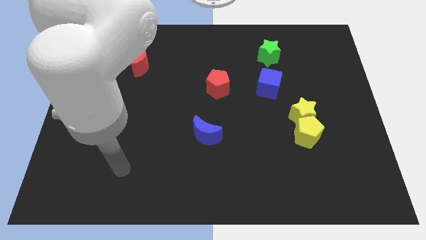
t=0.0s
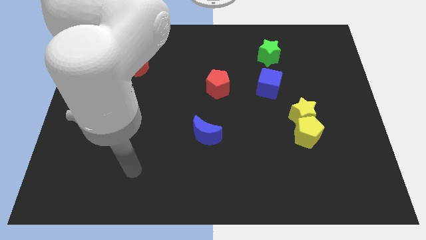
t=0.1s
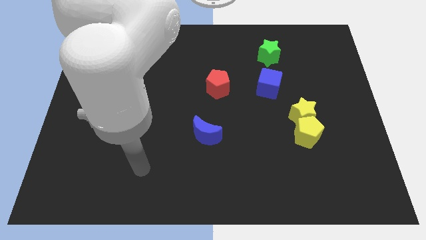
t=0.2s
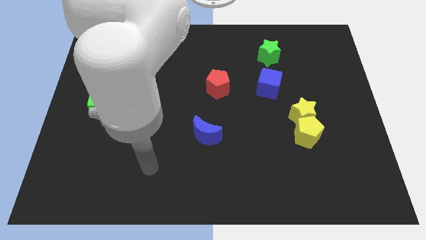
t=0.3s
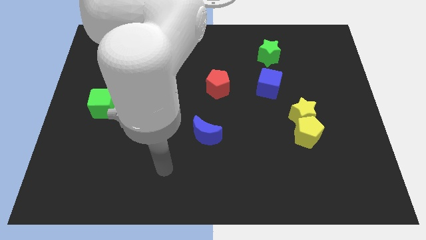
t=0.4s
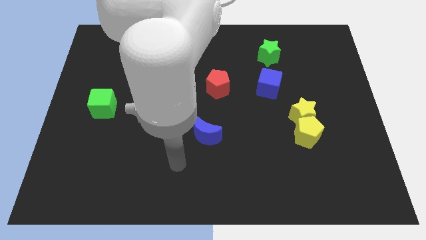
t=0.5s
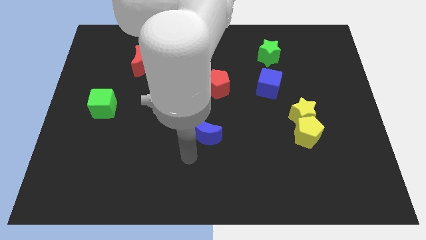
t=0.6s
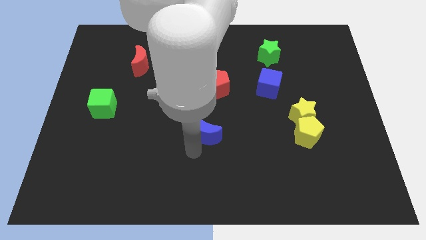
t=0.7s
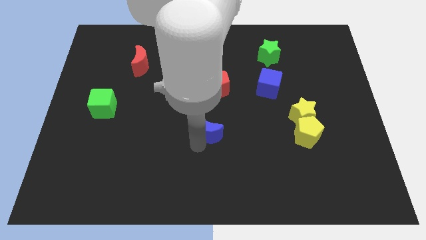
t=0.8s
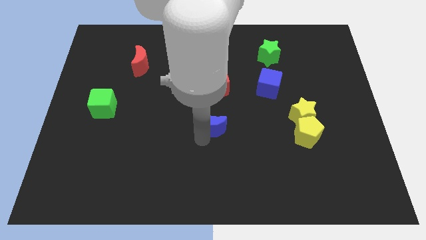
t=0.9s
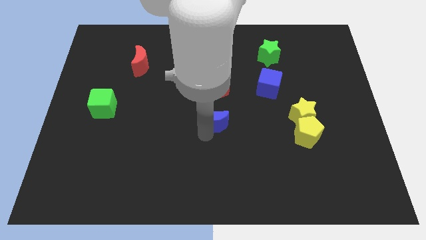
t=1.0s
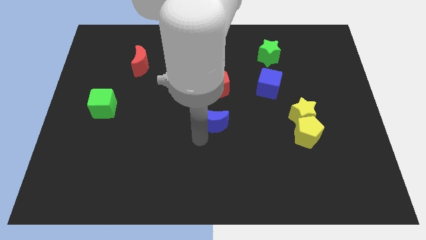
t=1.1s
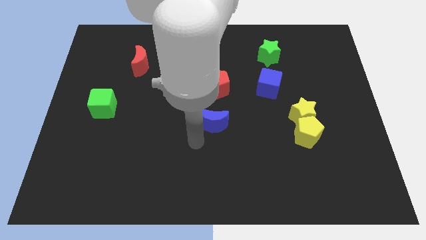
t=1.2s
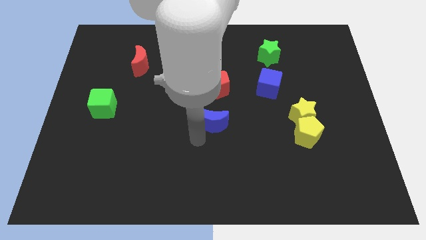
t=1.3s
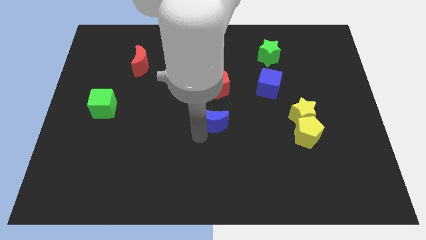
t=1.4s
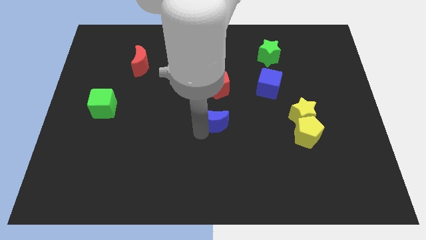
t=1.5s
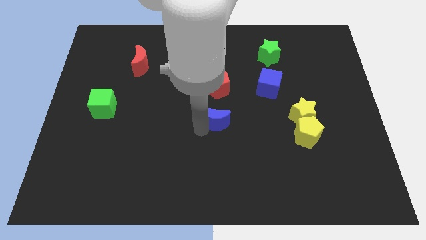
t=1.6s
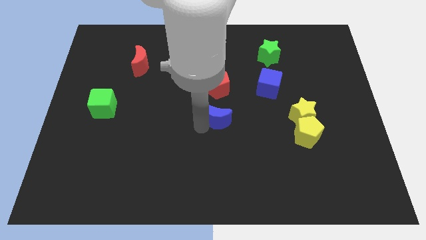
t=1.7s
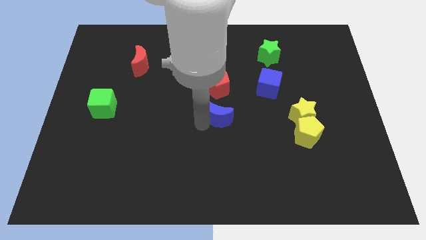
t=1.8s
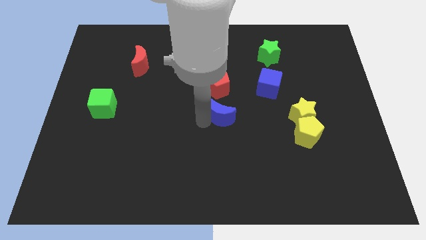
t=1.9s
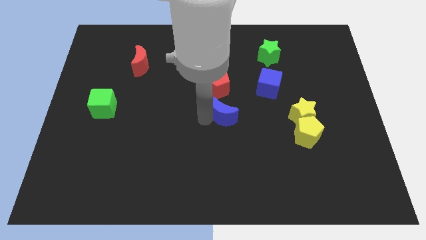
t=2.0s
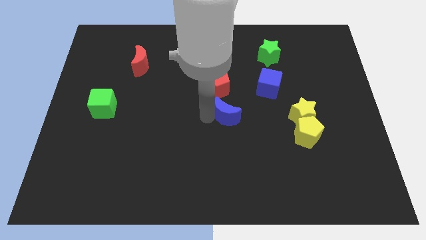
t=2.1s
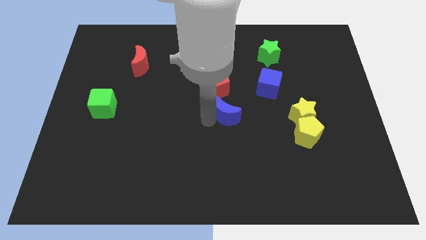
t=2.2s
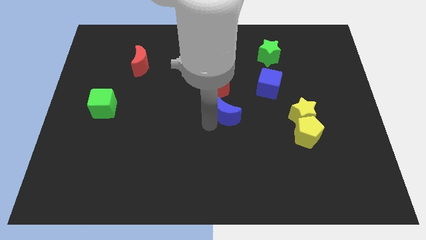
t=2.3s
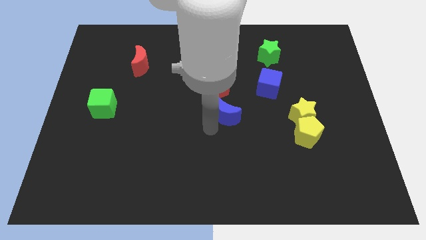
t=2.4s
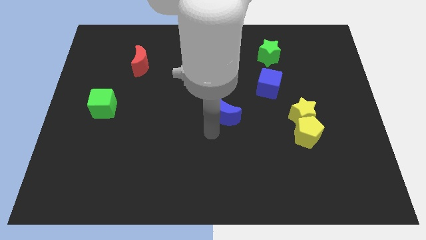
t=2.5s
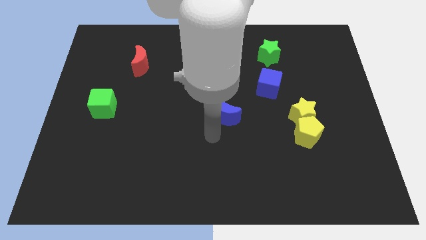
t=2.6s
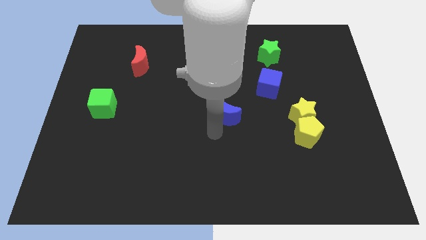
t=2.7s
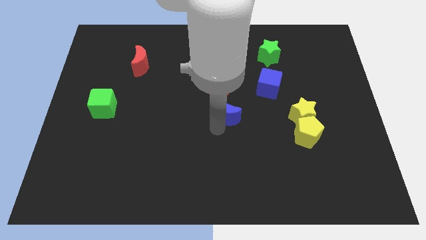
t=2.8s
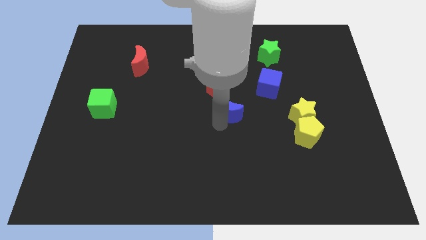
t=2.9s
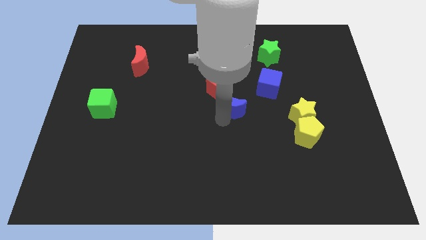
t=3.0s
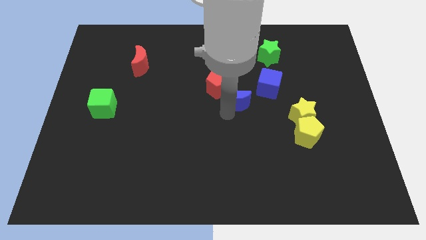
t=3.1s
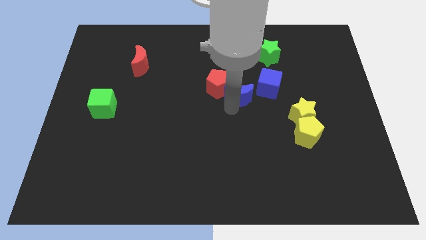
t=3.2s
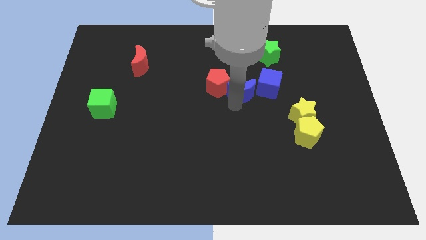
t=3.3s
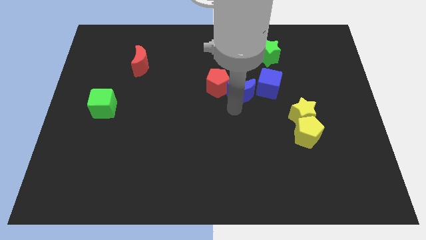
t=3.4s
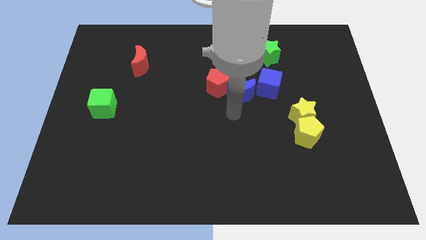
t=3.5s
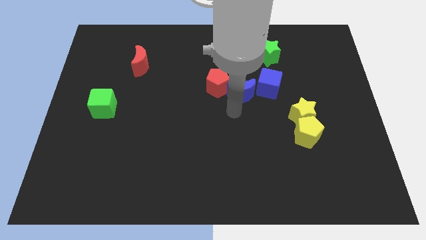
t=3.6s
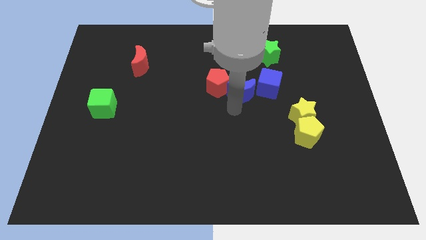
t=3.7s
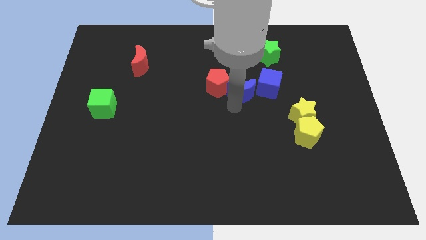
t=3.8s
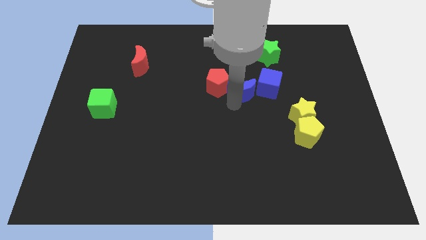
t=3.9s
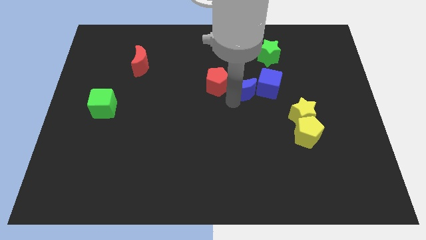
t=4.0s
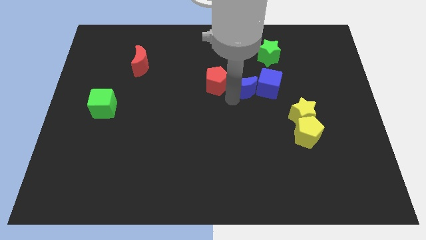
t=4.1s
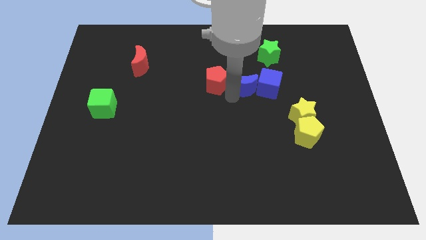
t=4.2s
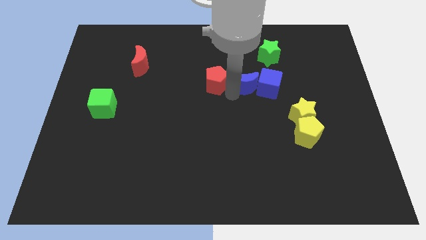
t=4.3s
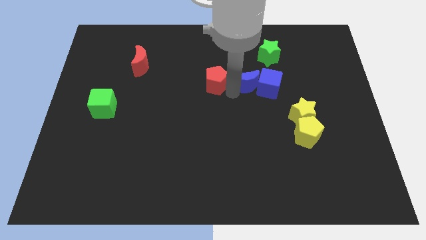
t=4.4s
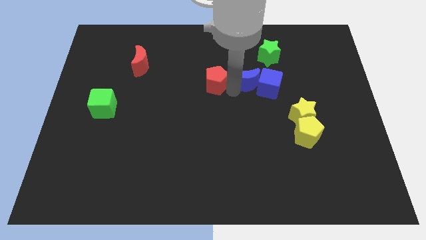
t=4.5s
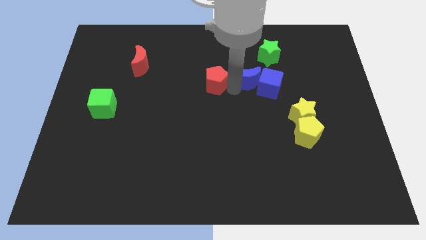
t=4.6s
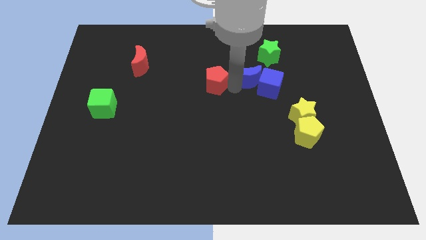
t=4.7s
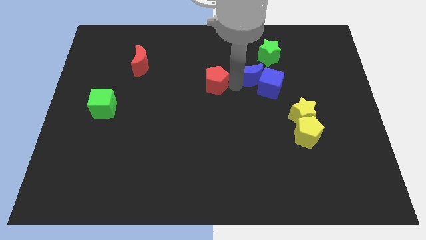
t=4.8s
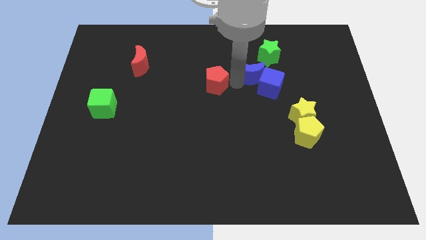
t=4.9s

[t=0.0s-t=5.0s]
move the blue moon up and then right

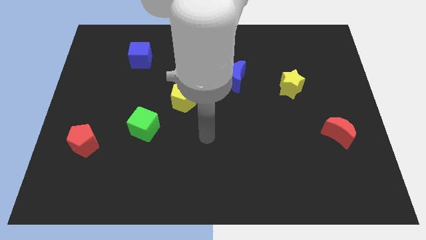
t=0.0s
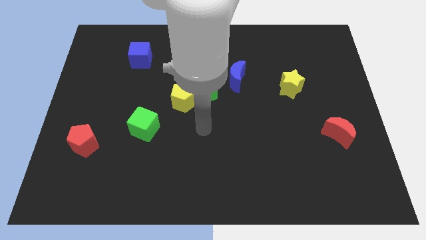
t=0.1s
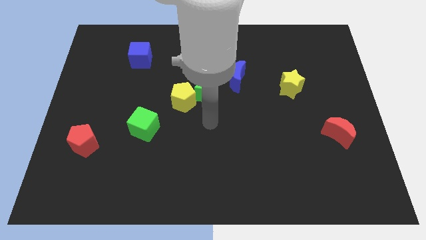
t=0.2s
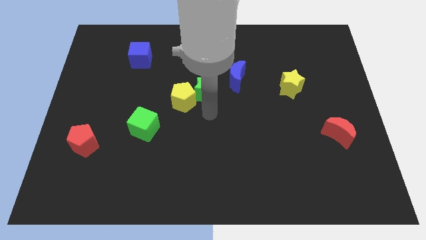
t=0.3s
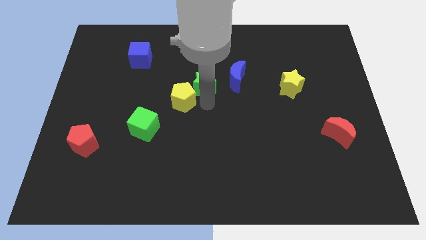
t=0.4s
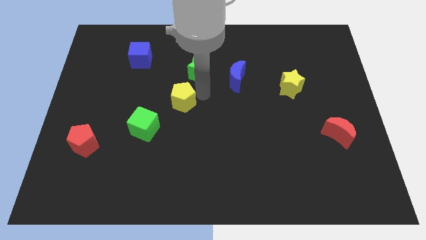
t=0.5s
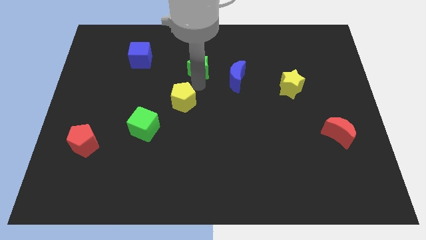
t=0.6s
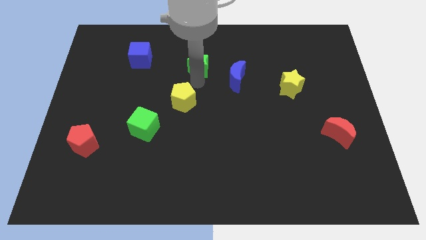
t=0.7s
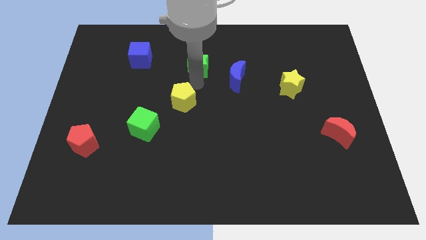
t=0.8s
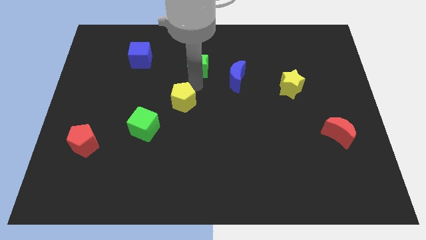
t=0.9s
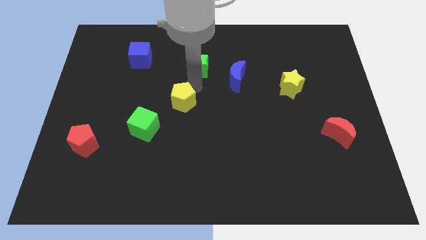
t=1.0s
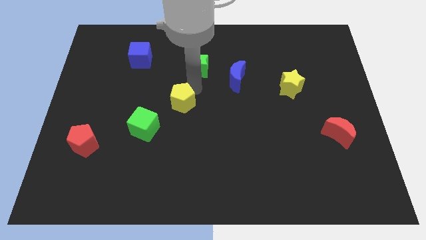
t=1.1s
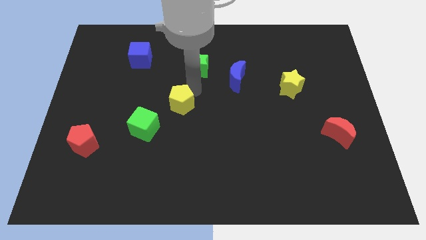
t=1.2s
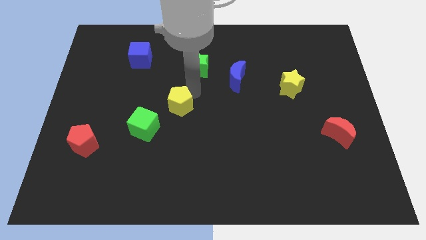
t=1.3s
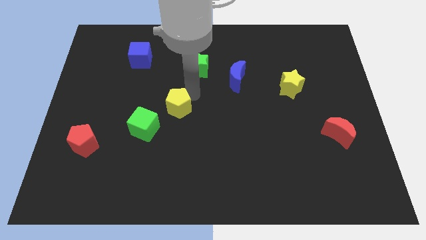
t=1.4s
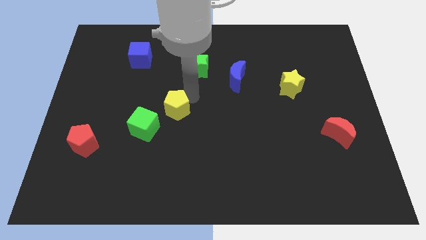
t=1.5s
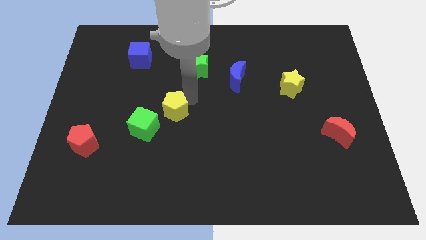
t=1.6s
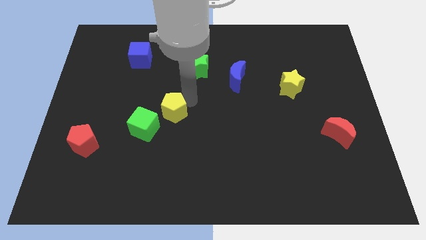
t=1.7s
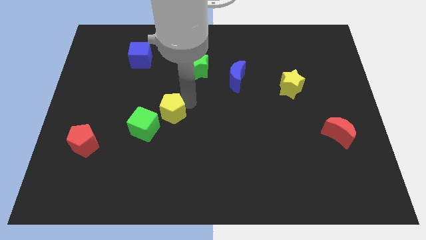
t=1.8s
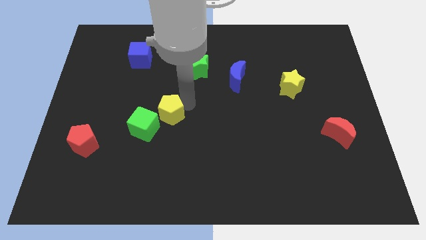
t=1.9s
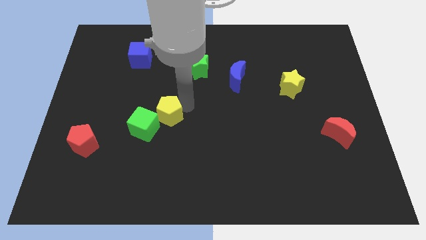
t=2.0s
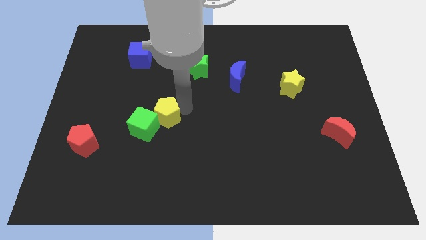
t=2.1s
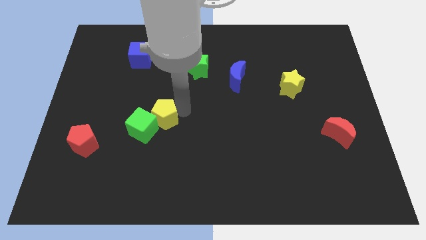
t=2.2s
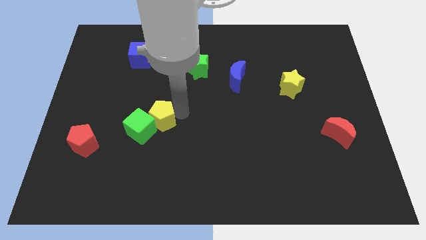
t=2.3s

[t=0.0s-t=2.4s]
slightly move the yellow pentagon diagonally downwards and left

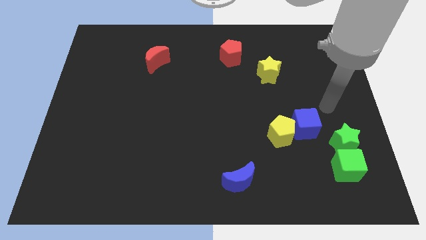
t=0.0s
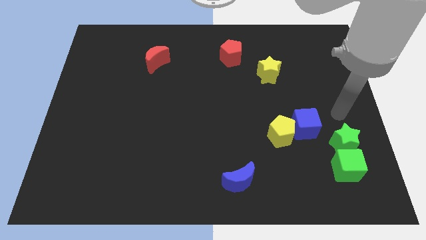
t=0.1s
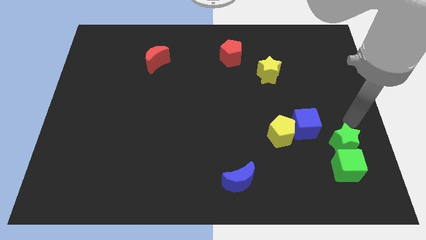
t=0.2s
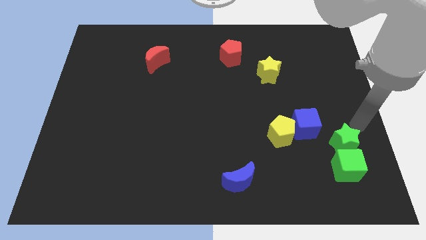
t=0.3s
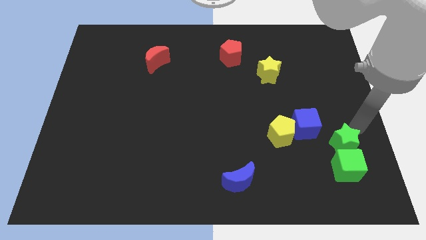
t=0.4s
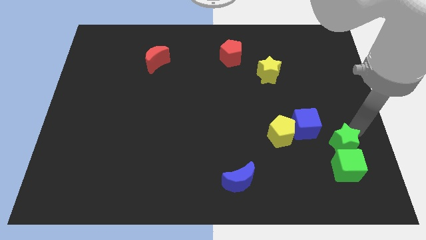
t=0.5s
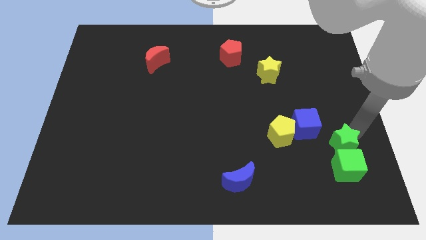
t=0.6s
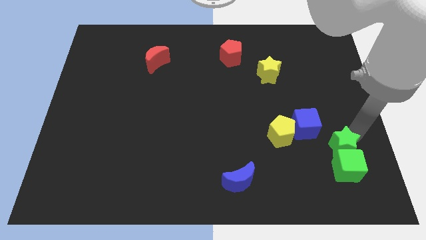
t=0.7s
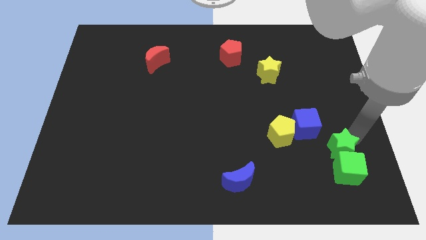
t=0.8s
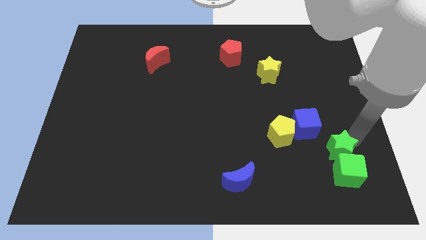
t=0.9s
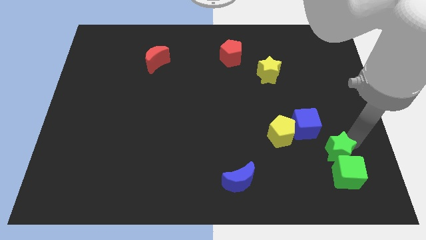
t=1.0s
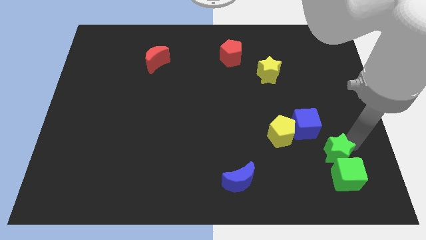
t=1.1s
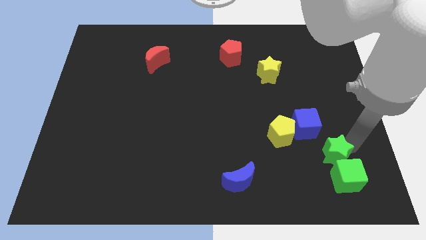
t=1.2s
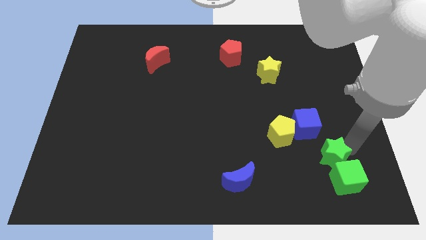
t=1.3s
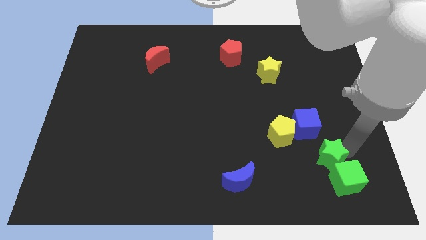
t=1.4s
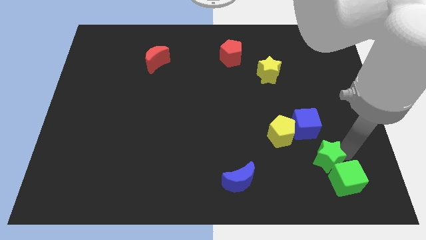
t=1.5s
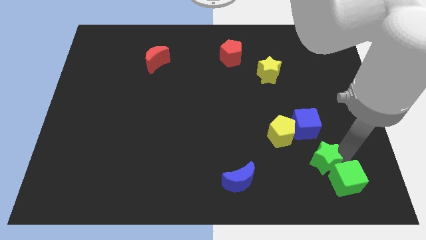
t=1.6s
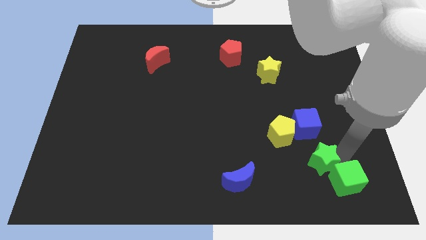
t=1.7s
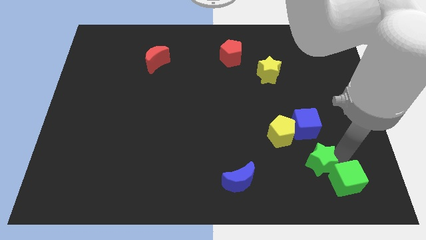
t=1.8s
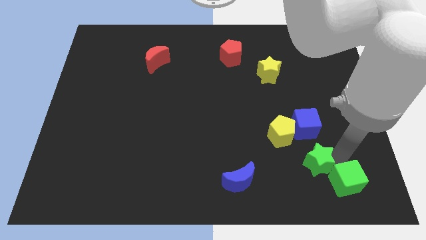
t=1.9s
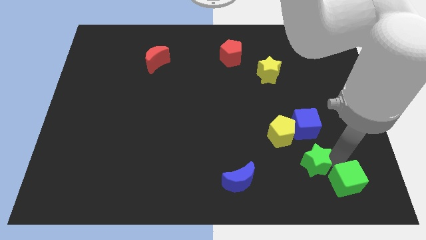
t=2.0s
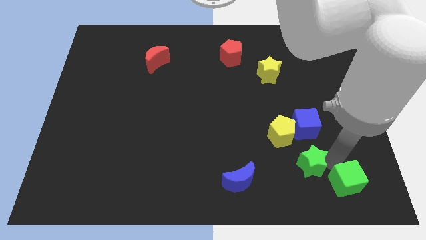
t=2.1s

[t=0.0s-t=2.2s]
push the green star slightly to the left
